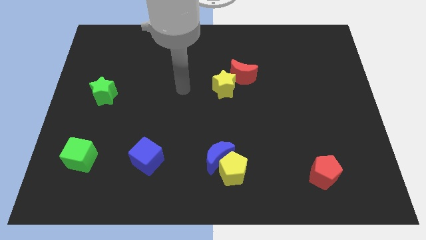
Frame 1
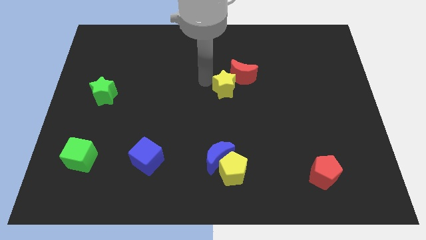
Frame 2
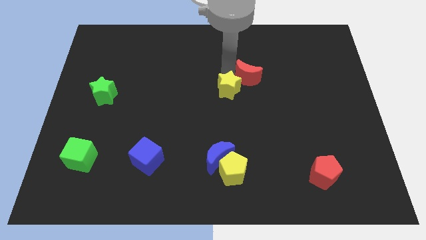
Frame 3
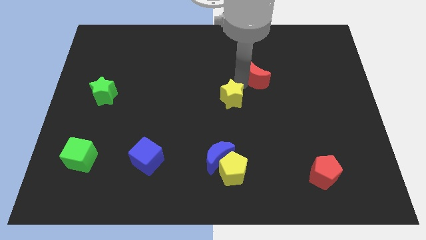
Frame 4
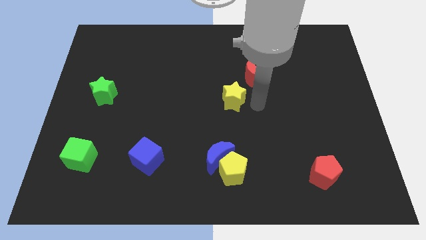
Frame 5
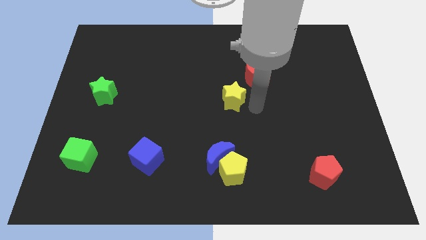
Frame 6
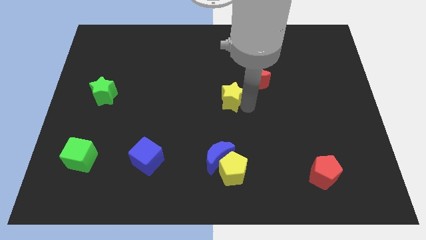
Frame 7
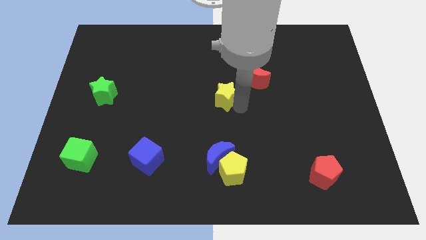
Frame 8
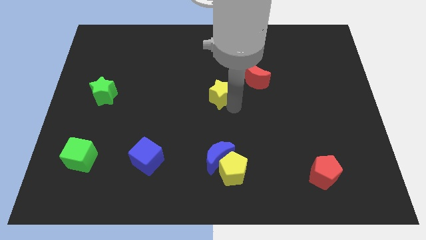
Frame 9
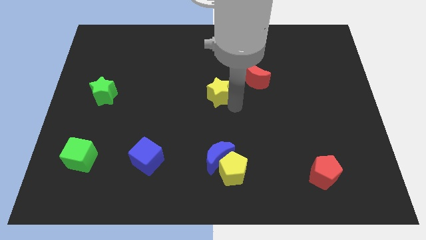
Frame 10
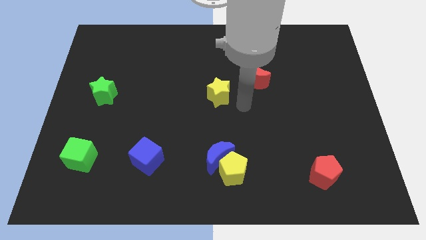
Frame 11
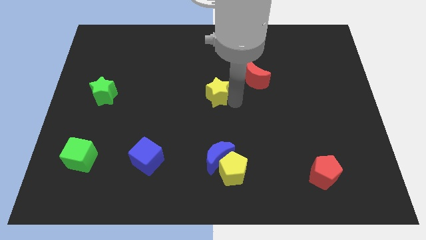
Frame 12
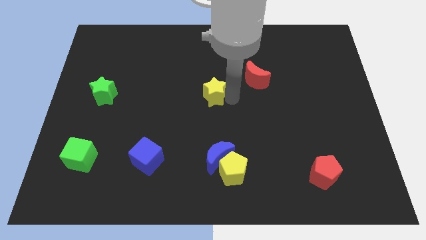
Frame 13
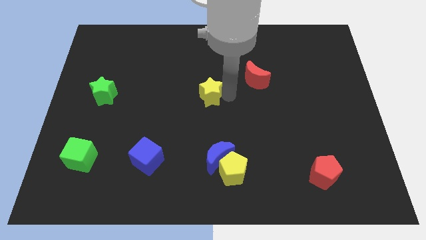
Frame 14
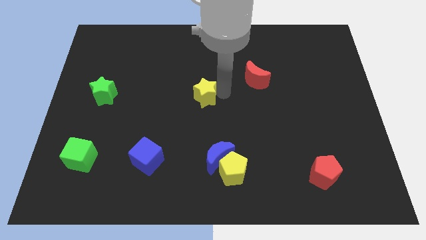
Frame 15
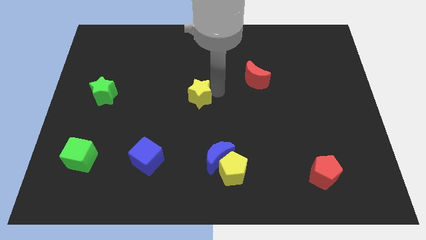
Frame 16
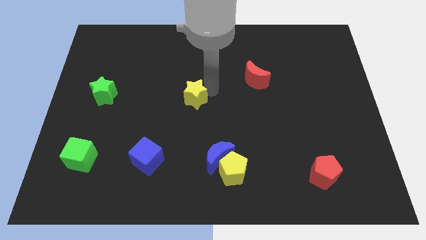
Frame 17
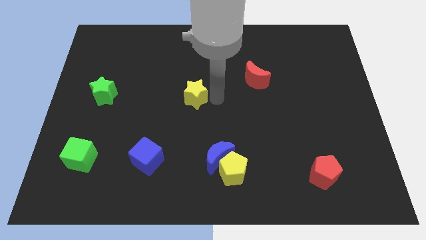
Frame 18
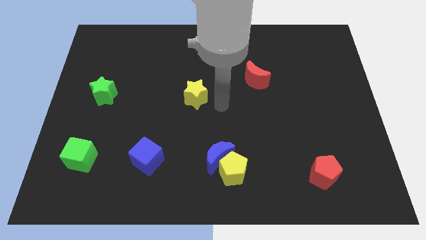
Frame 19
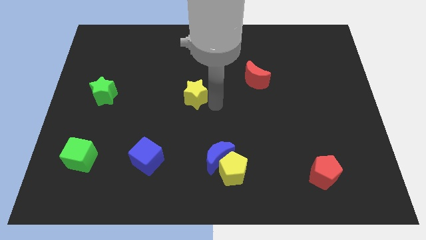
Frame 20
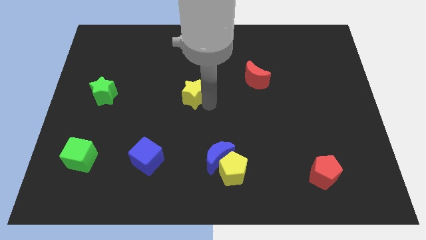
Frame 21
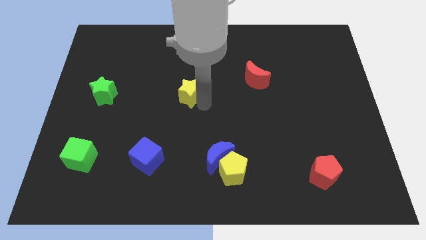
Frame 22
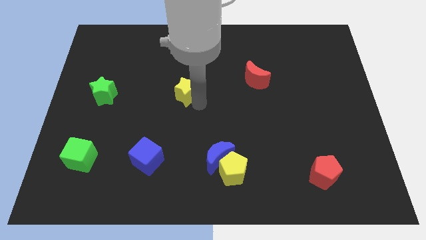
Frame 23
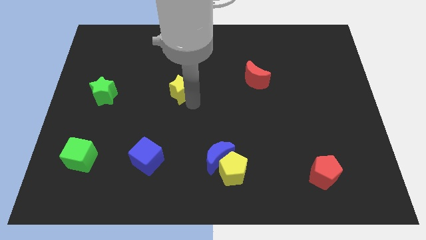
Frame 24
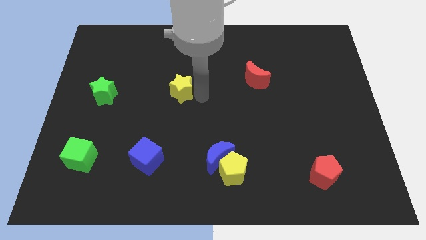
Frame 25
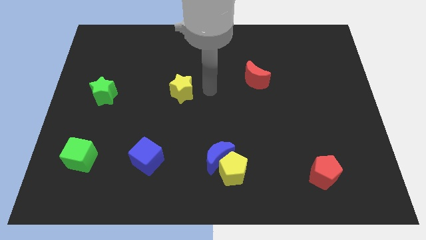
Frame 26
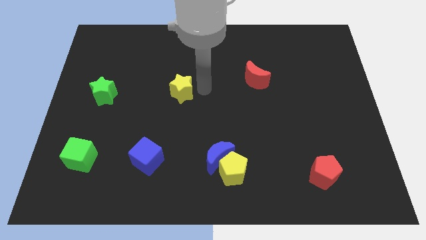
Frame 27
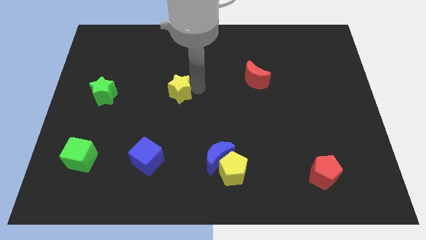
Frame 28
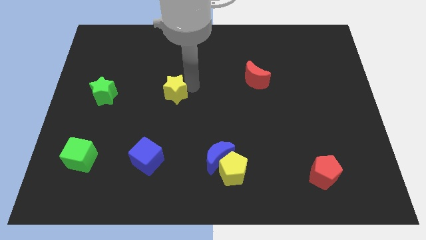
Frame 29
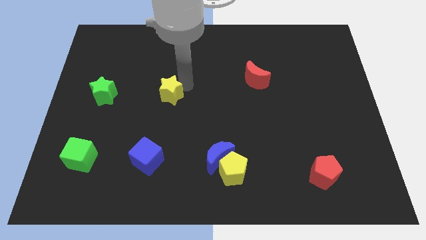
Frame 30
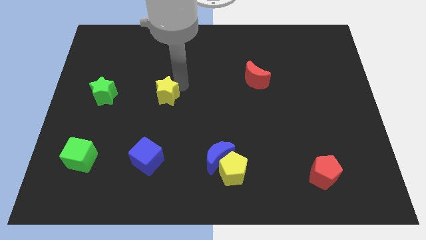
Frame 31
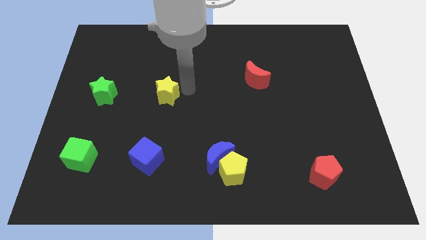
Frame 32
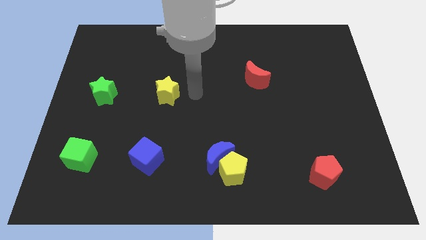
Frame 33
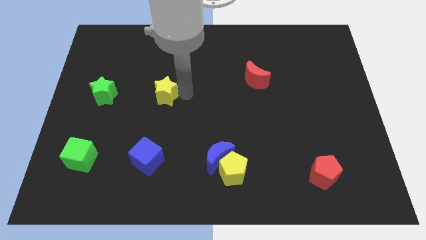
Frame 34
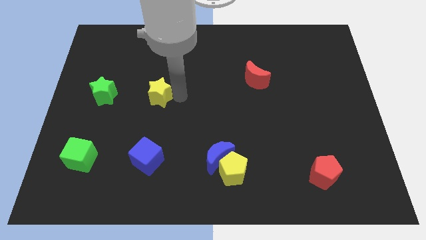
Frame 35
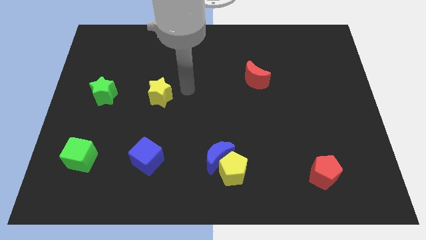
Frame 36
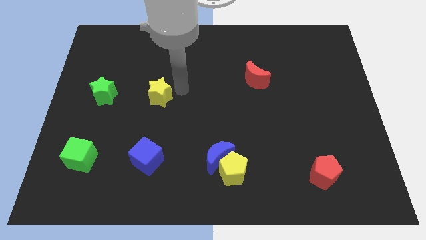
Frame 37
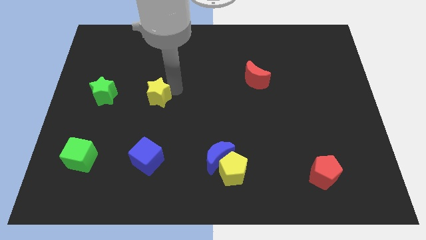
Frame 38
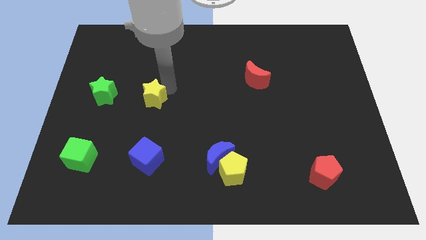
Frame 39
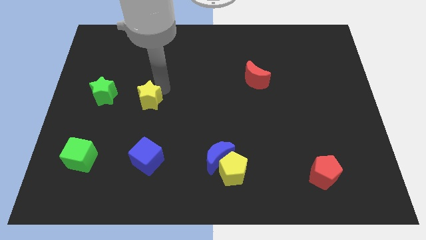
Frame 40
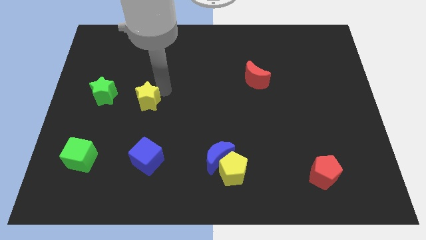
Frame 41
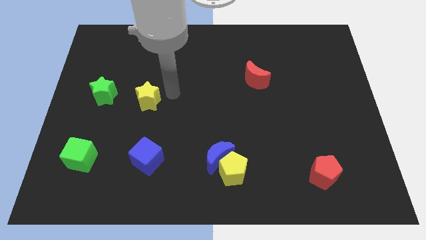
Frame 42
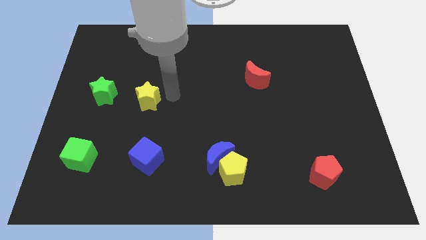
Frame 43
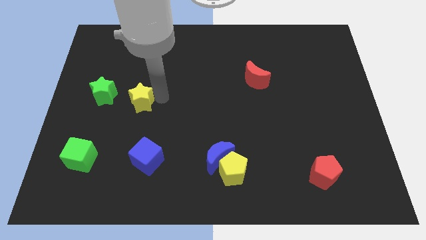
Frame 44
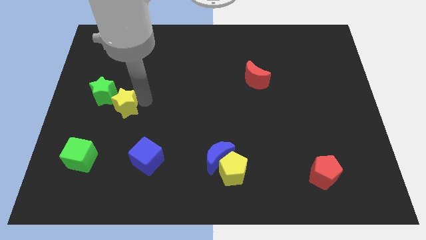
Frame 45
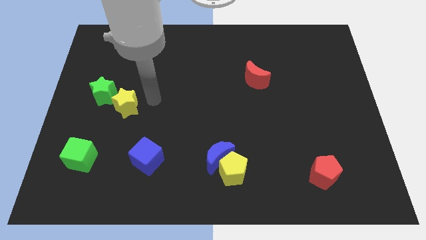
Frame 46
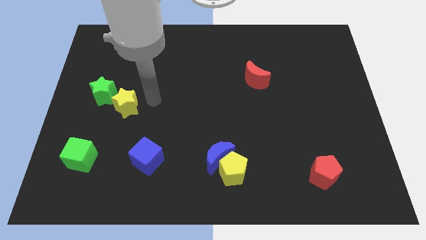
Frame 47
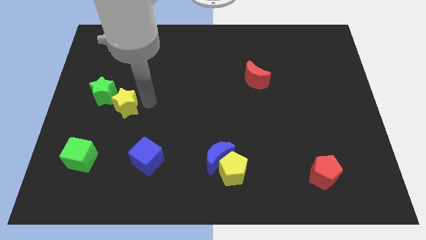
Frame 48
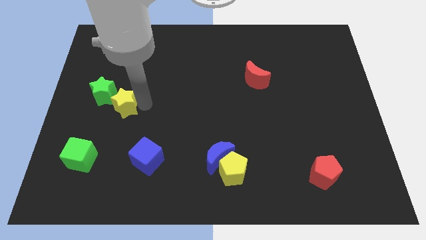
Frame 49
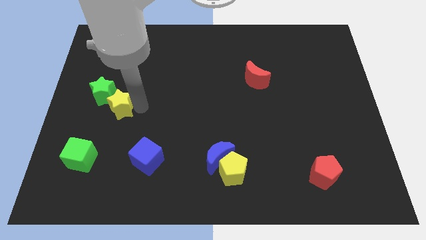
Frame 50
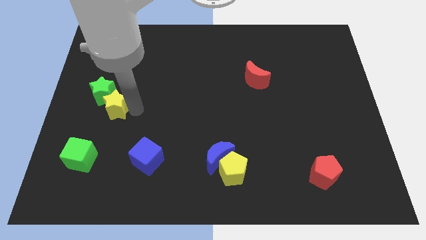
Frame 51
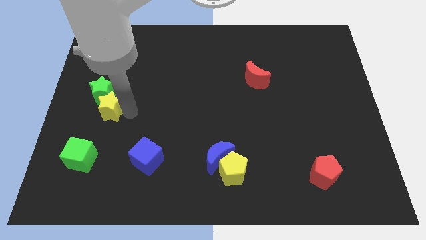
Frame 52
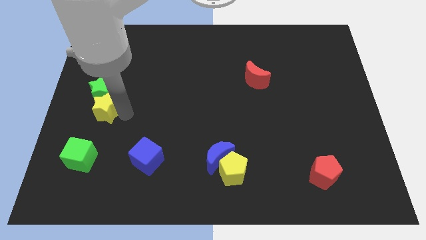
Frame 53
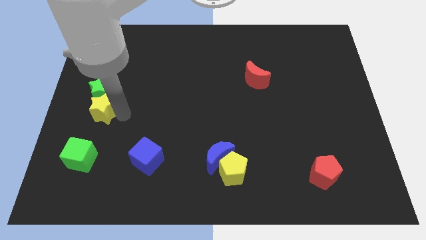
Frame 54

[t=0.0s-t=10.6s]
put the yellow star to the center left

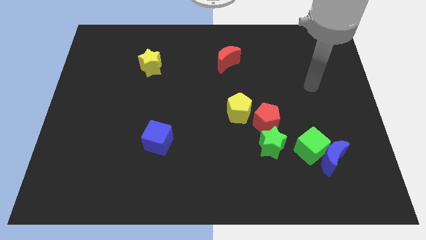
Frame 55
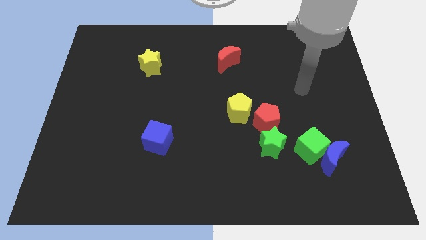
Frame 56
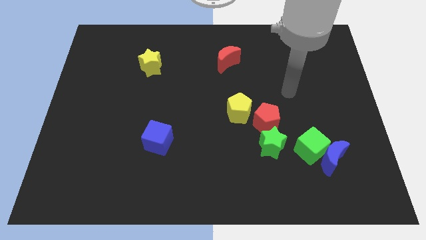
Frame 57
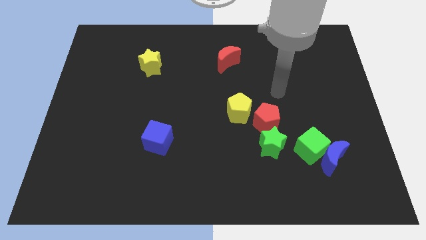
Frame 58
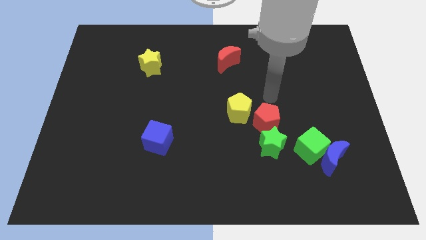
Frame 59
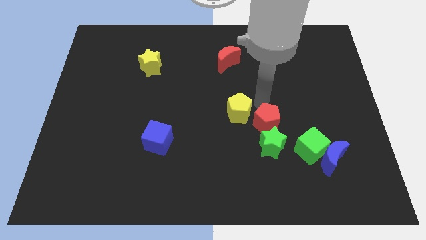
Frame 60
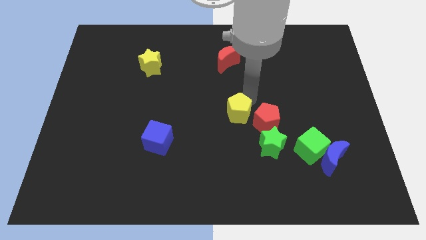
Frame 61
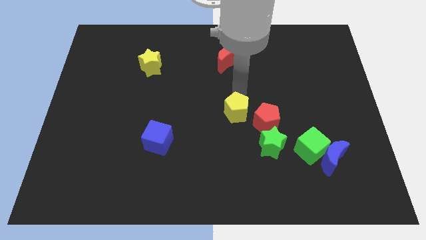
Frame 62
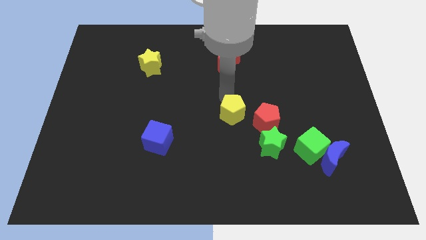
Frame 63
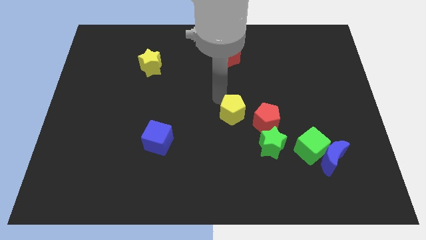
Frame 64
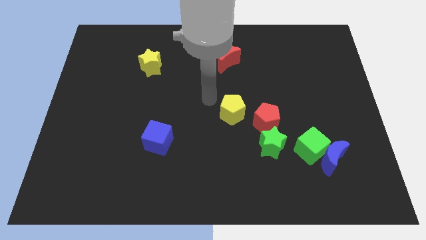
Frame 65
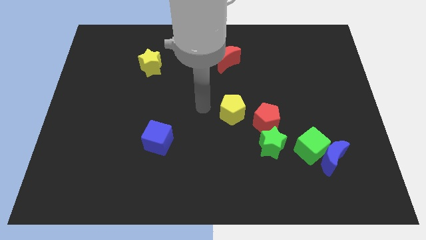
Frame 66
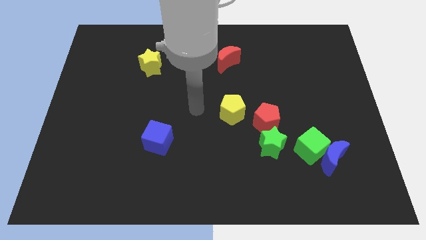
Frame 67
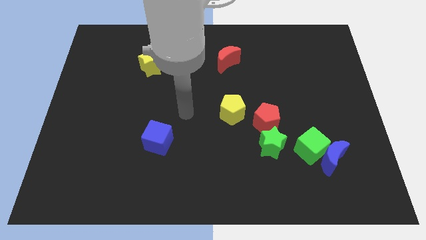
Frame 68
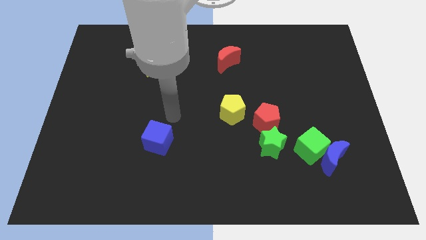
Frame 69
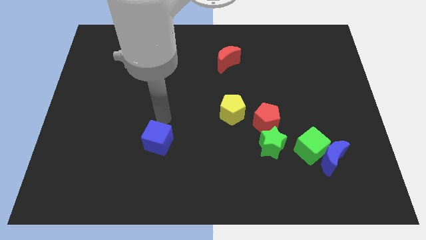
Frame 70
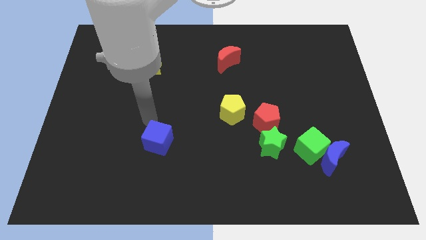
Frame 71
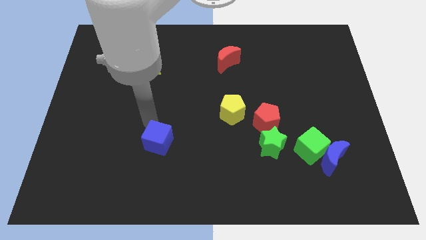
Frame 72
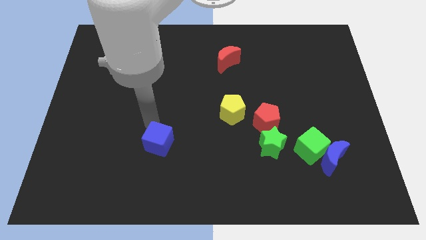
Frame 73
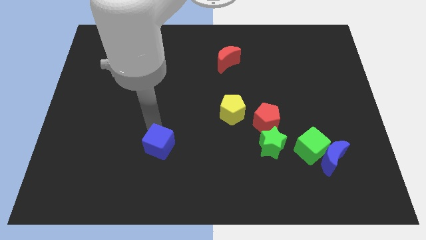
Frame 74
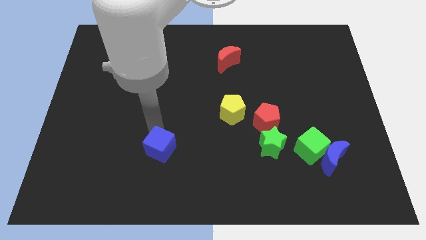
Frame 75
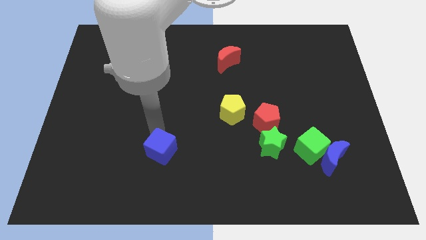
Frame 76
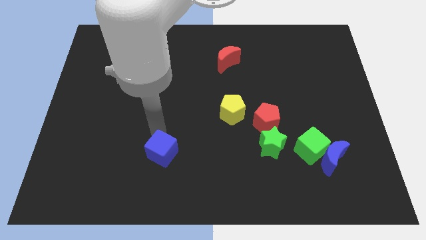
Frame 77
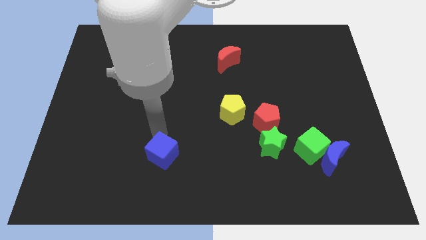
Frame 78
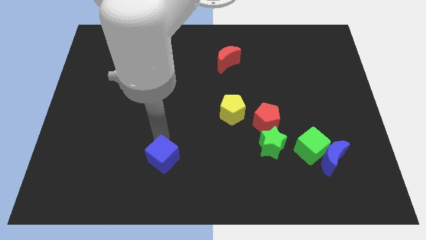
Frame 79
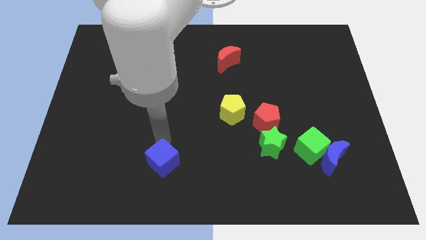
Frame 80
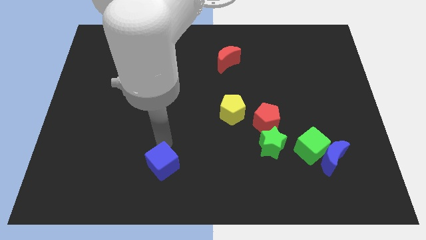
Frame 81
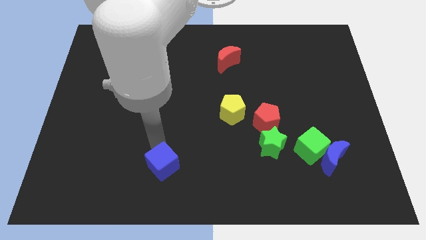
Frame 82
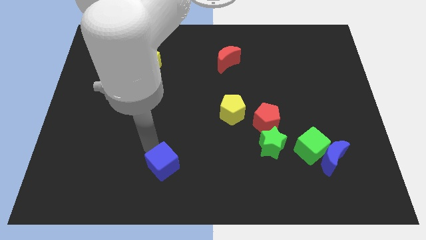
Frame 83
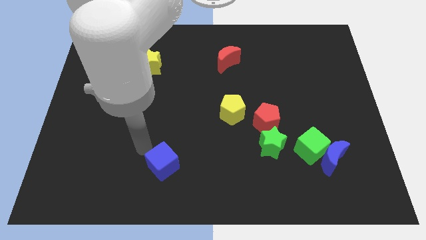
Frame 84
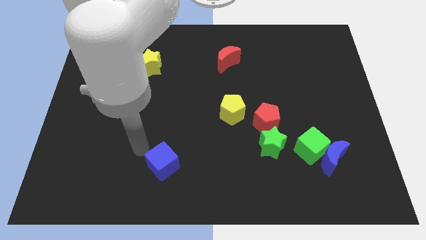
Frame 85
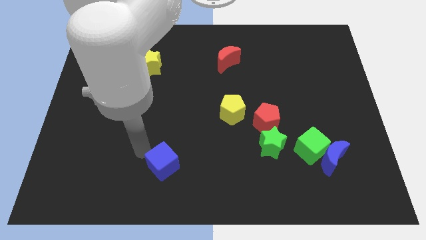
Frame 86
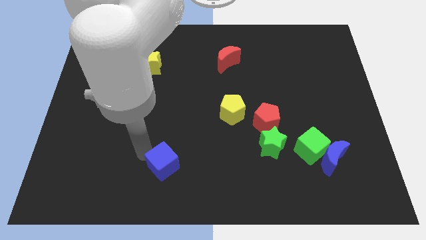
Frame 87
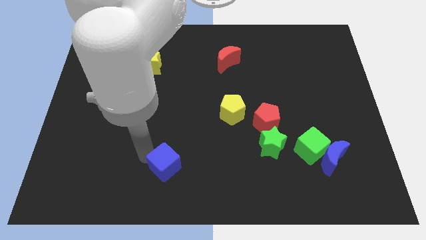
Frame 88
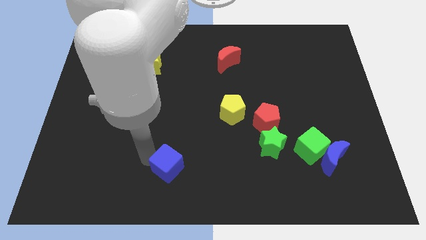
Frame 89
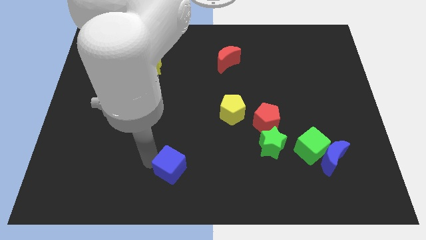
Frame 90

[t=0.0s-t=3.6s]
put the blue cube to the bottom side
